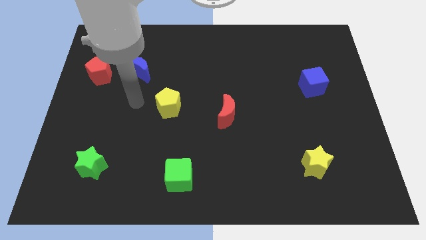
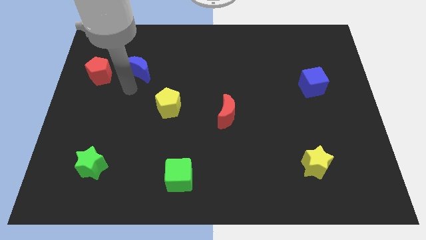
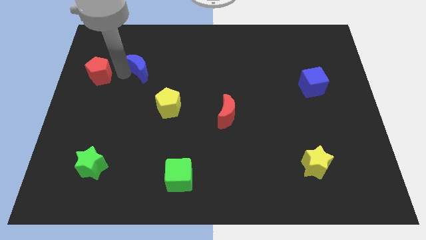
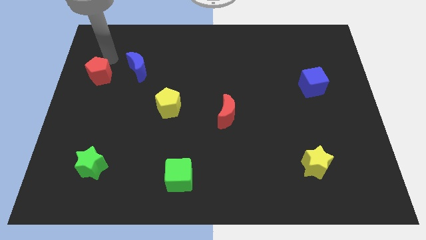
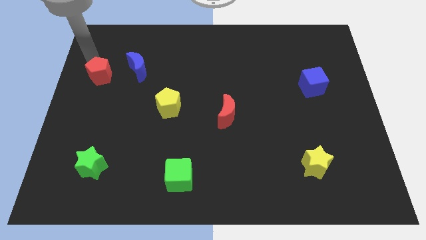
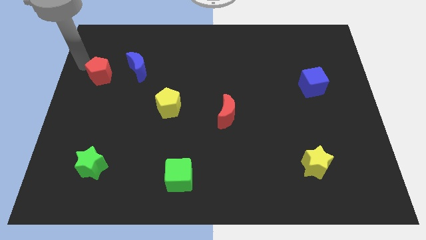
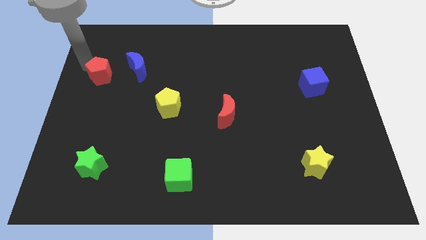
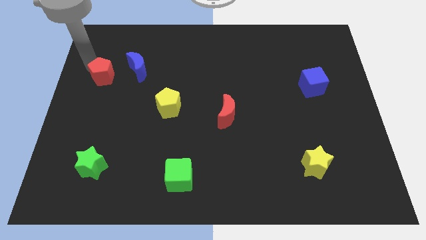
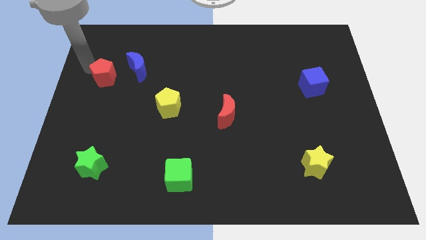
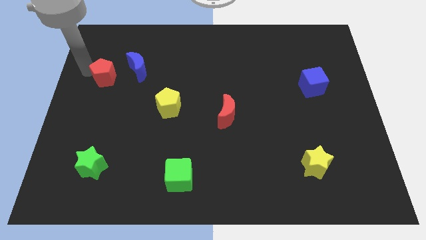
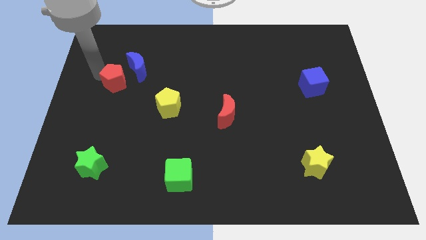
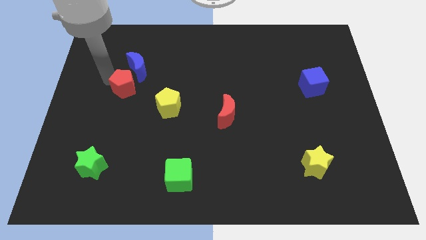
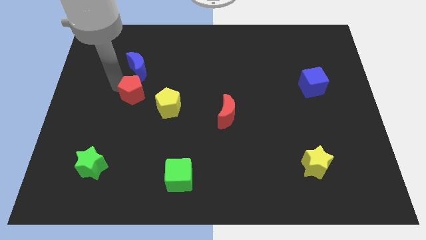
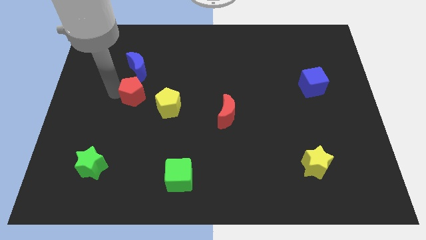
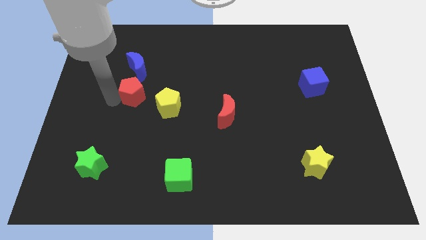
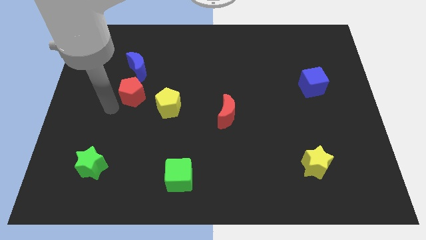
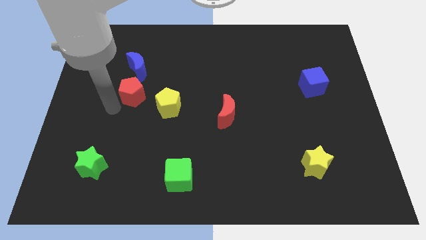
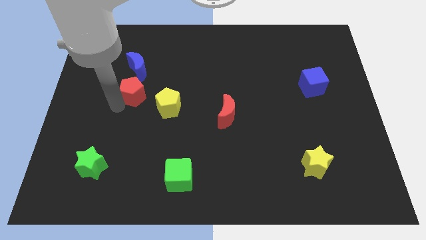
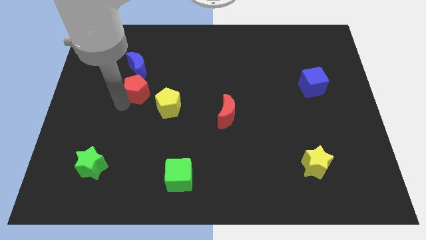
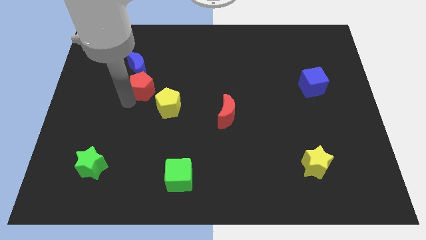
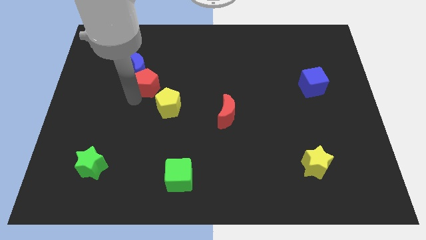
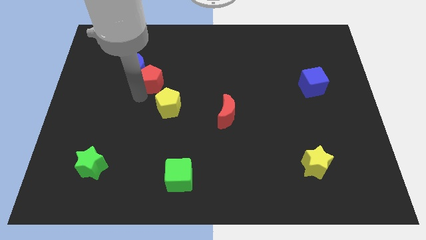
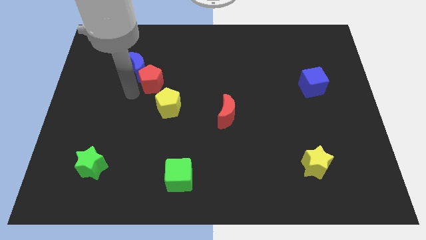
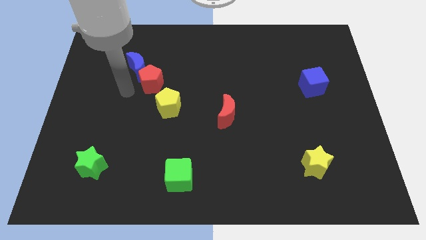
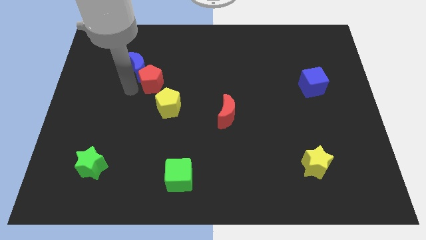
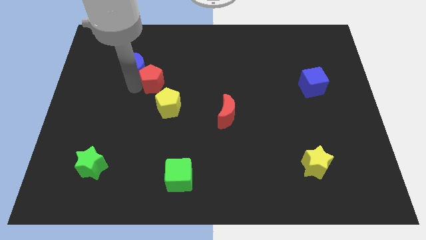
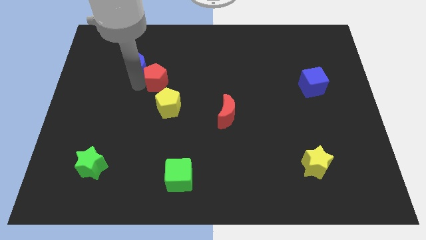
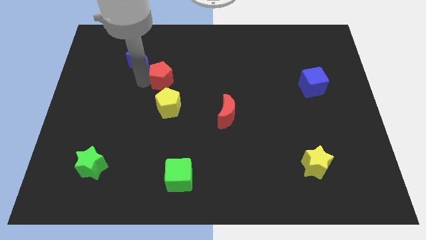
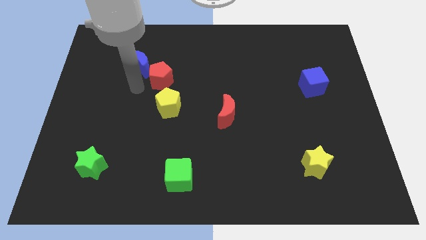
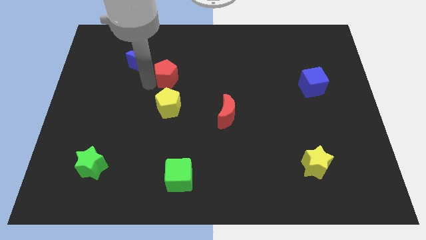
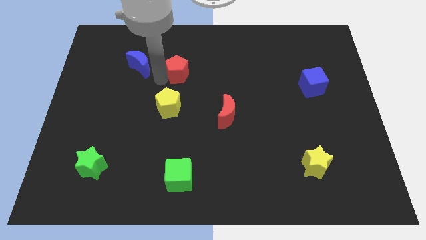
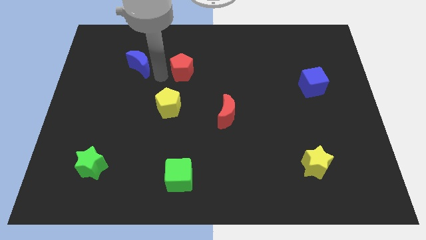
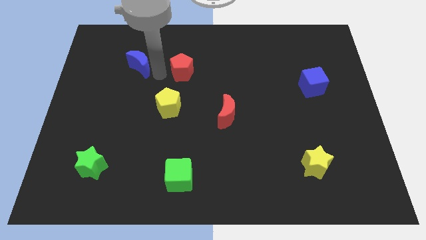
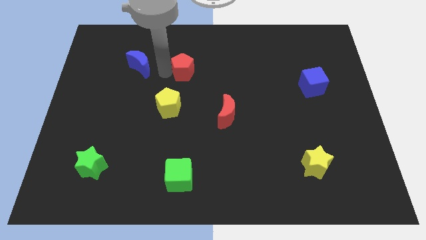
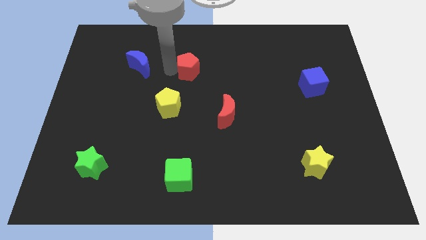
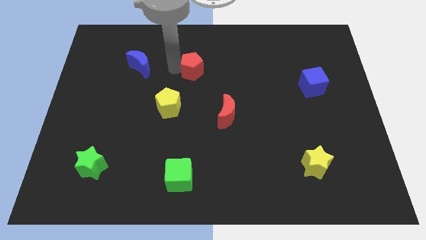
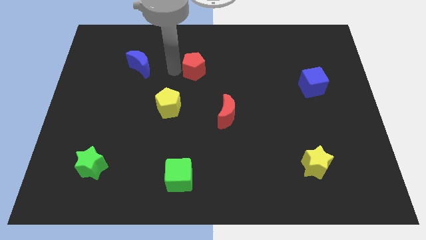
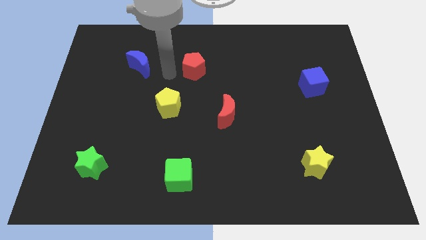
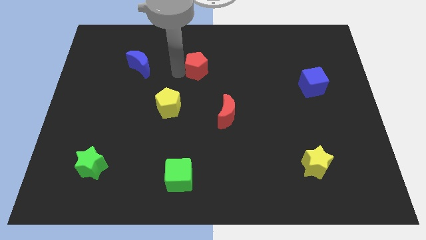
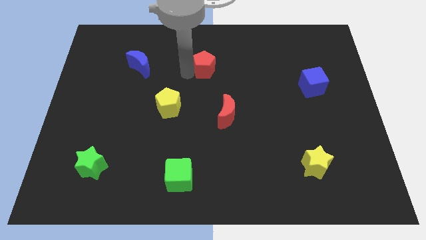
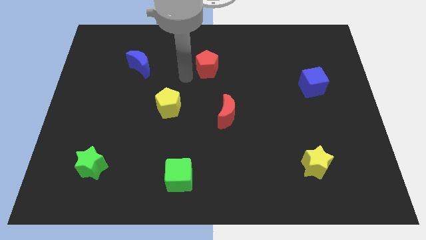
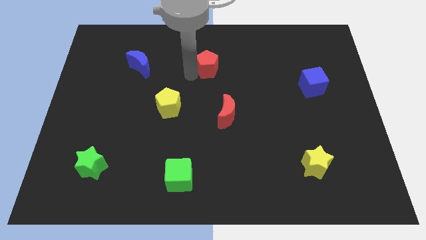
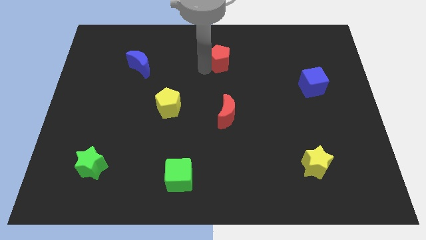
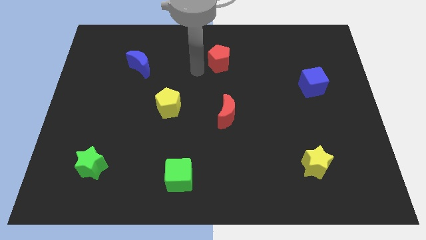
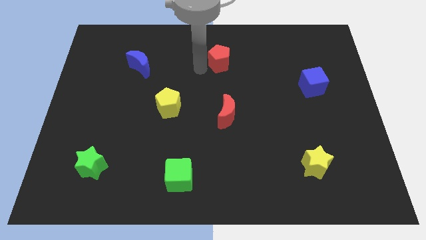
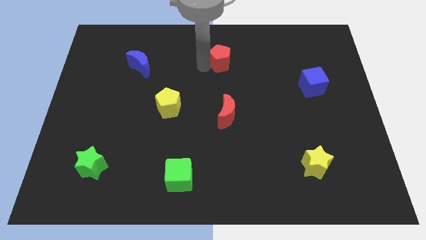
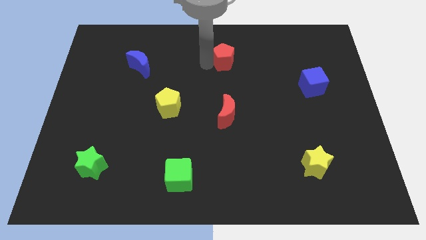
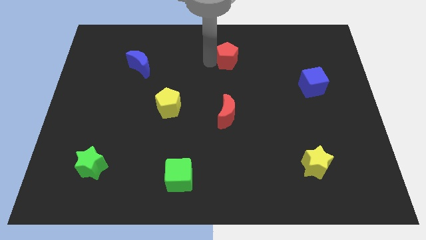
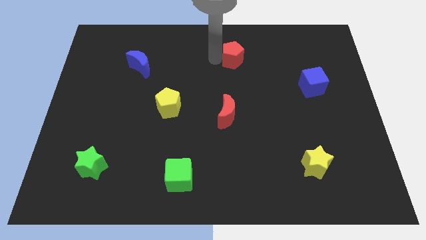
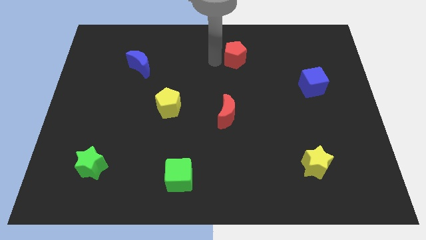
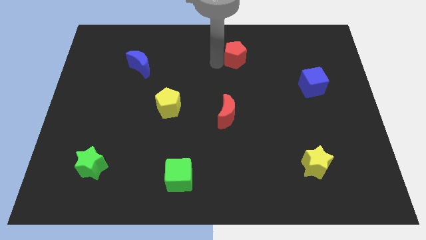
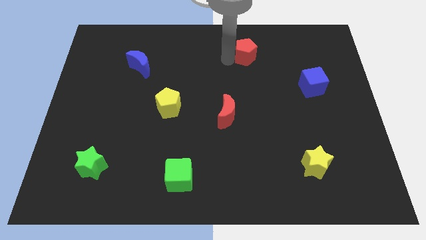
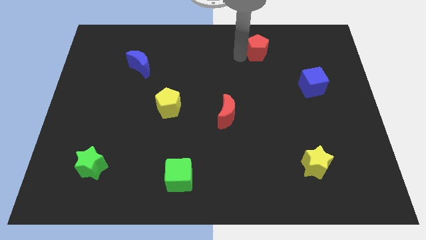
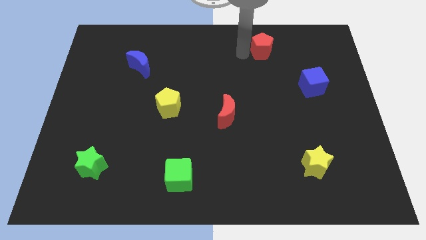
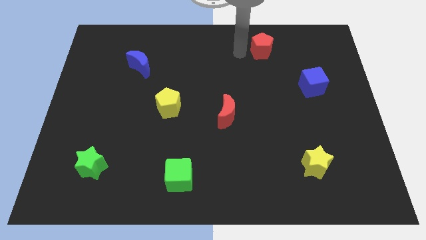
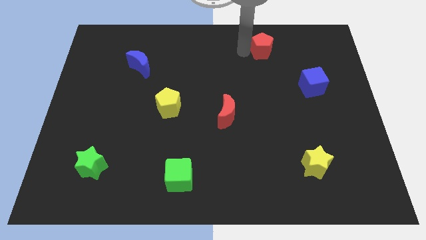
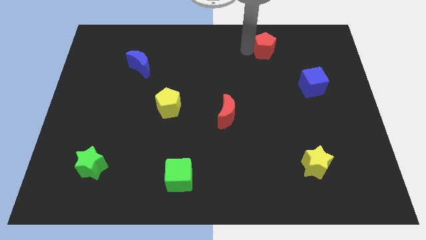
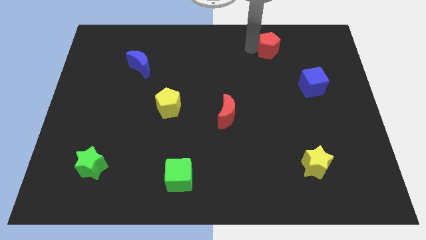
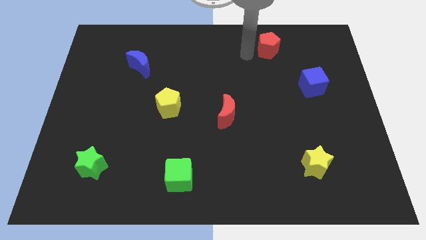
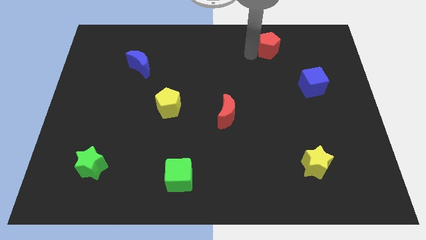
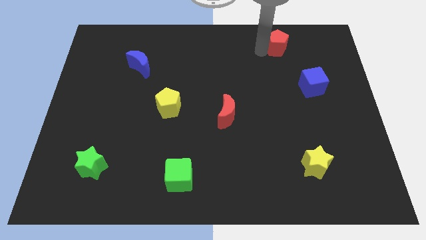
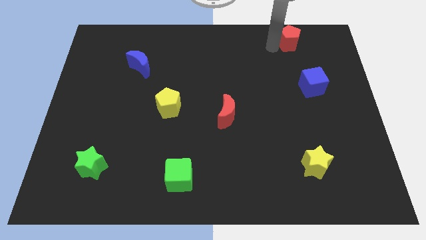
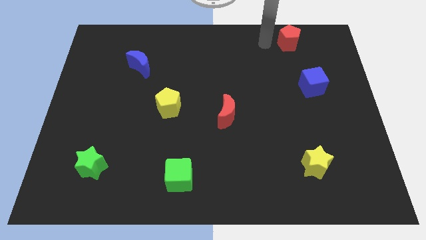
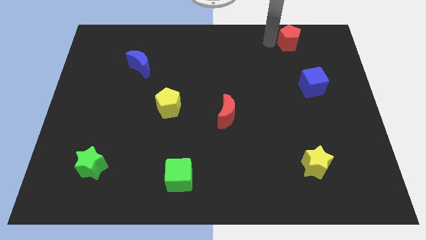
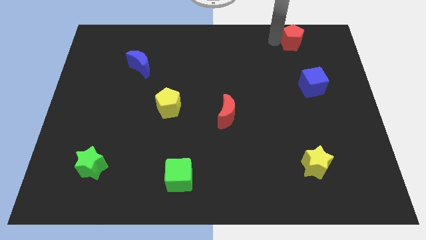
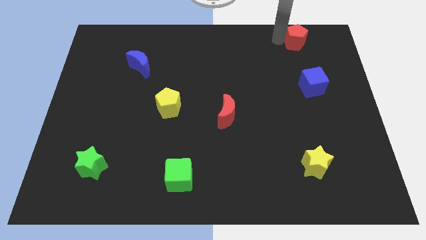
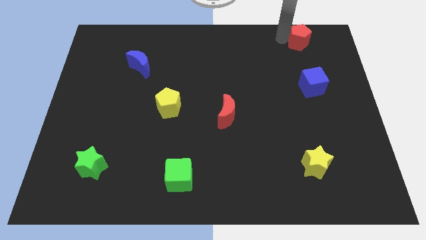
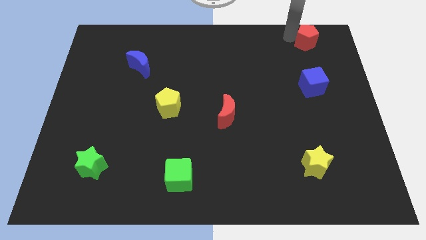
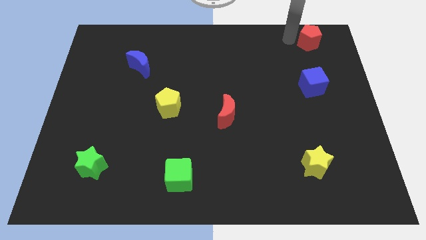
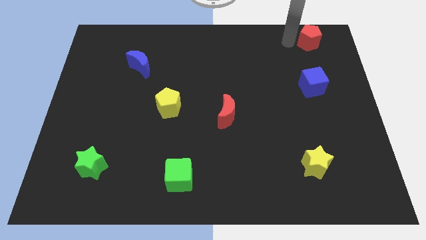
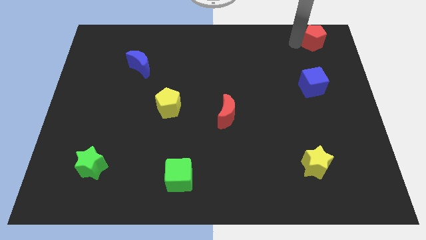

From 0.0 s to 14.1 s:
put the red pentagon to the top right
